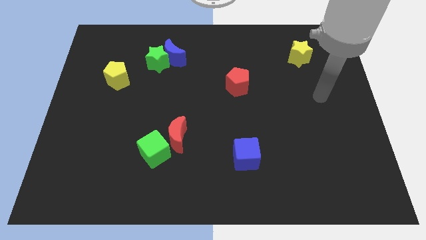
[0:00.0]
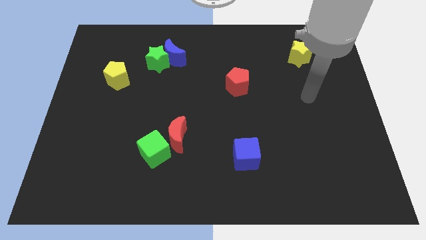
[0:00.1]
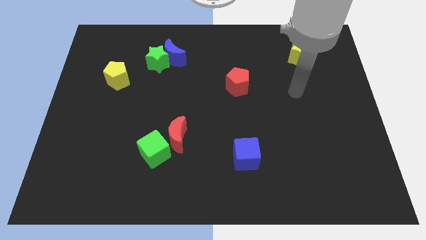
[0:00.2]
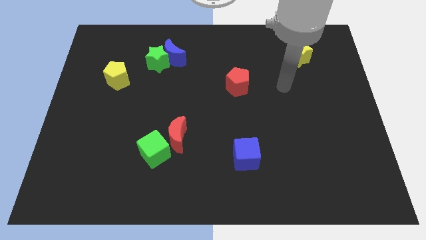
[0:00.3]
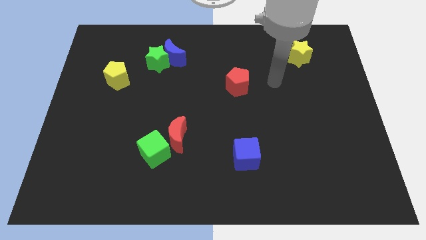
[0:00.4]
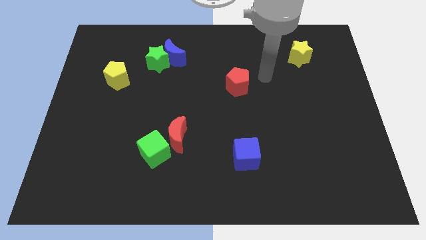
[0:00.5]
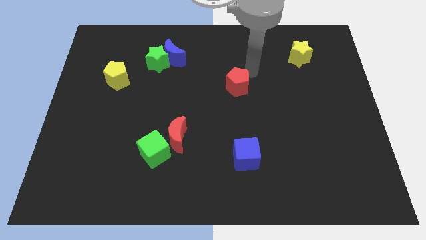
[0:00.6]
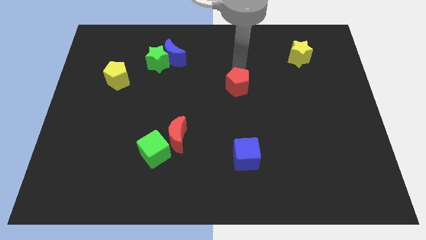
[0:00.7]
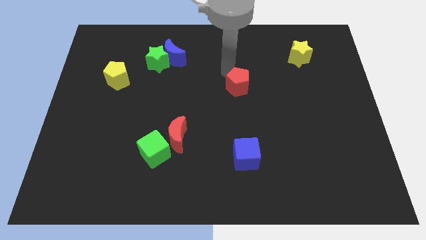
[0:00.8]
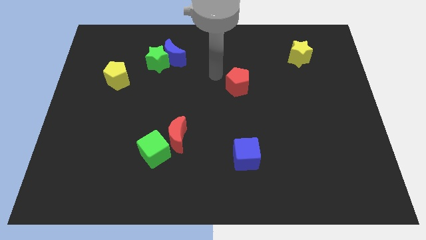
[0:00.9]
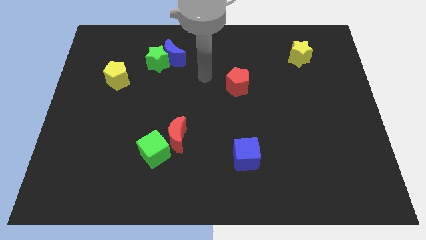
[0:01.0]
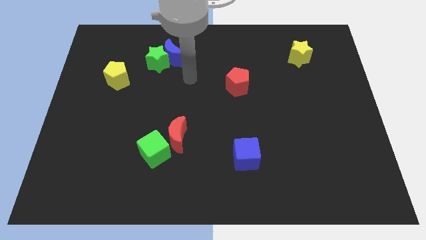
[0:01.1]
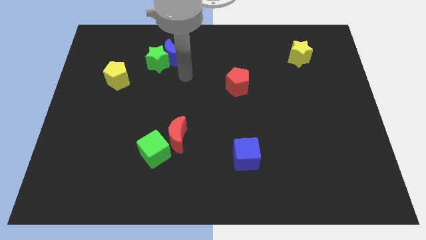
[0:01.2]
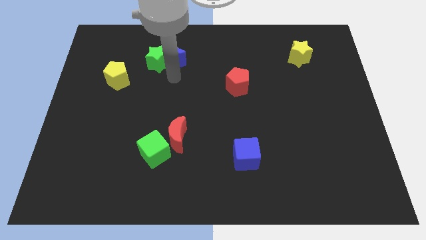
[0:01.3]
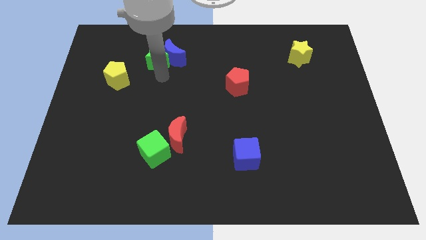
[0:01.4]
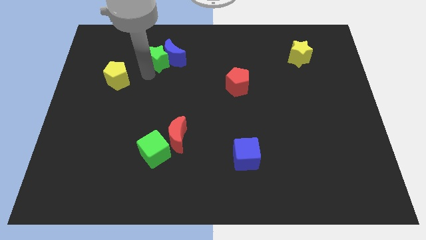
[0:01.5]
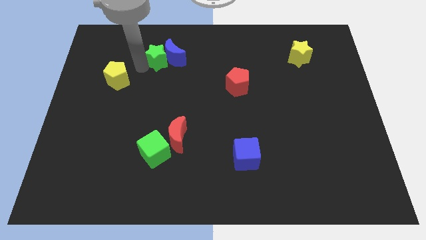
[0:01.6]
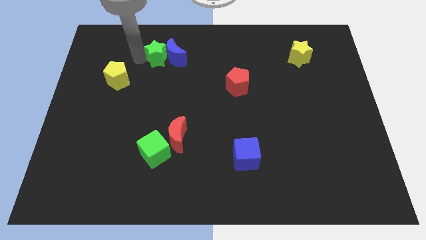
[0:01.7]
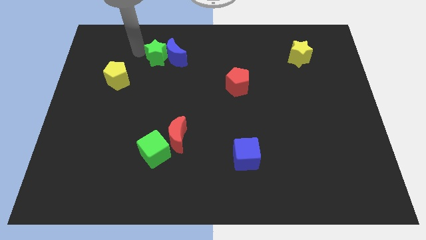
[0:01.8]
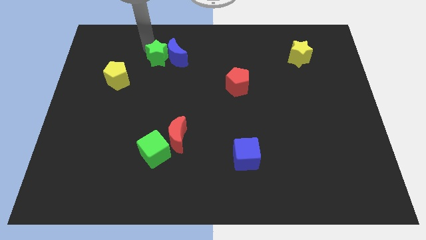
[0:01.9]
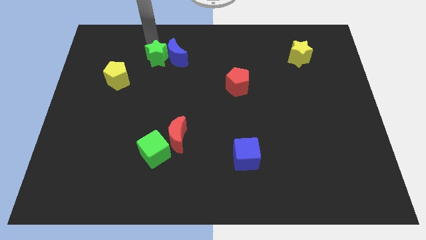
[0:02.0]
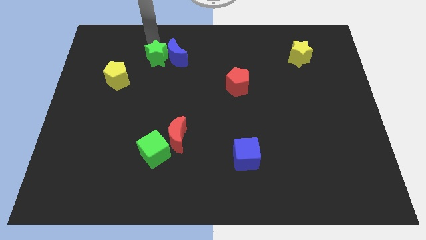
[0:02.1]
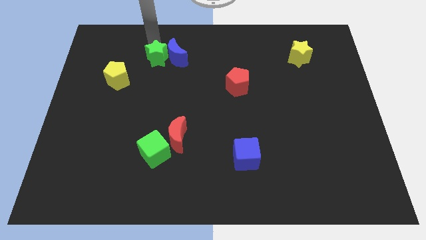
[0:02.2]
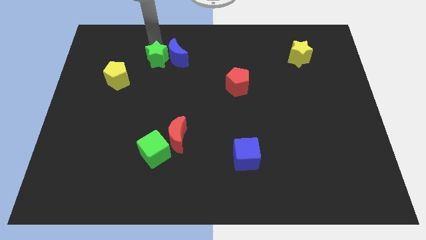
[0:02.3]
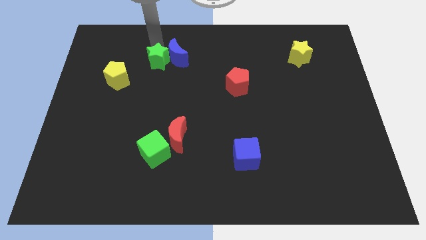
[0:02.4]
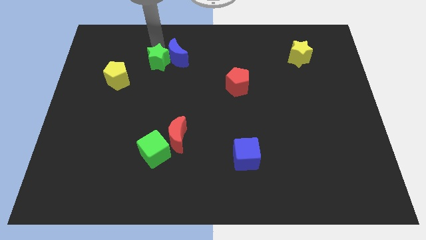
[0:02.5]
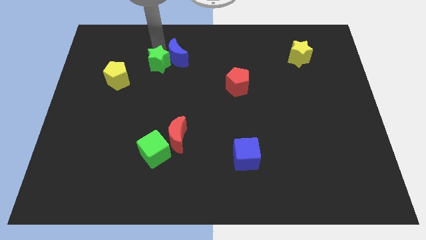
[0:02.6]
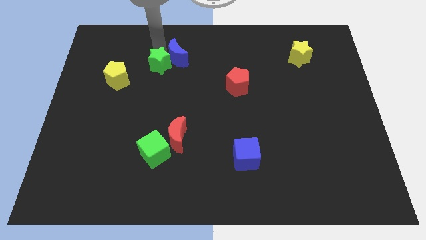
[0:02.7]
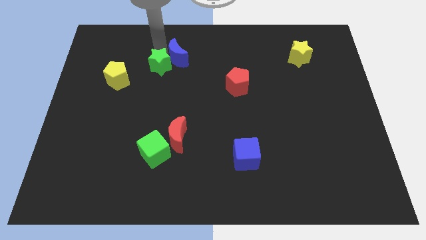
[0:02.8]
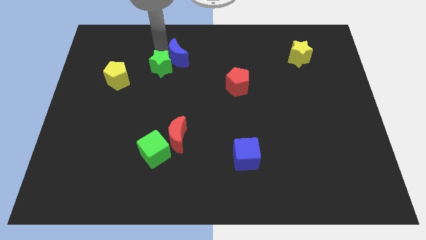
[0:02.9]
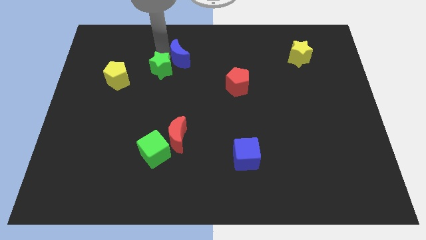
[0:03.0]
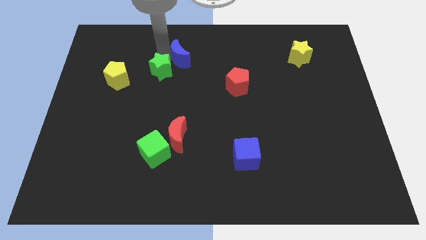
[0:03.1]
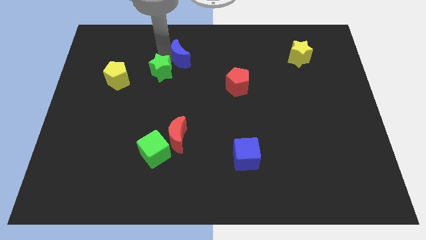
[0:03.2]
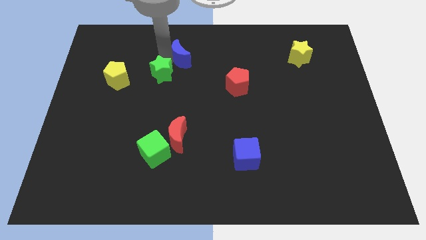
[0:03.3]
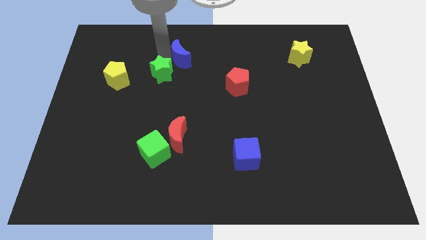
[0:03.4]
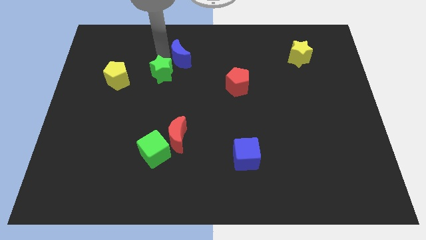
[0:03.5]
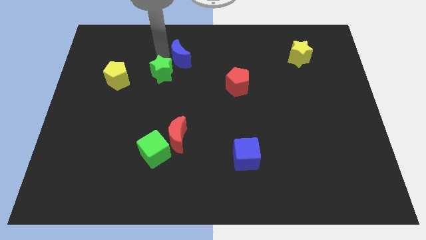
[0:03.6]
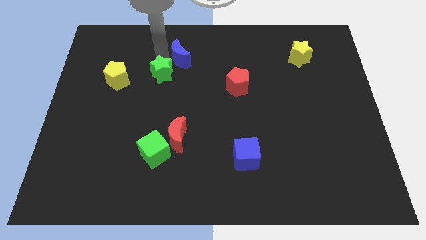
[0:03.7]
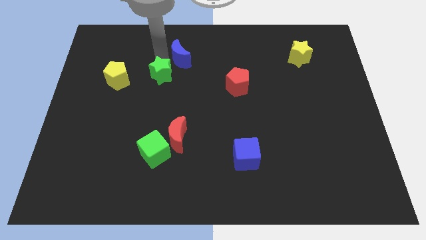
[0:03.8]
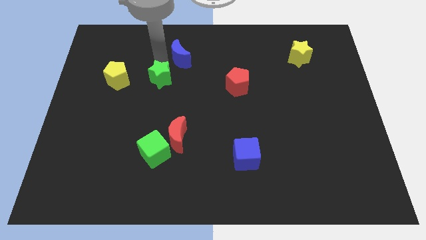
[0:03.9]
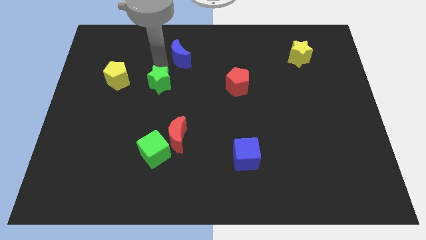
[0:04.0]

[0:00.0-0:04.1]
slightly move the green star down

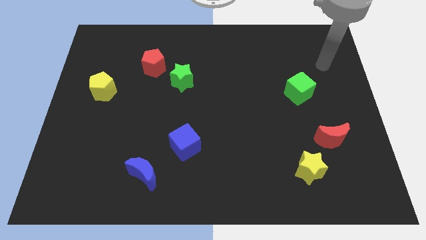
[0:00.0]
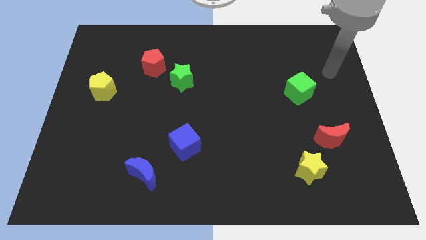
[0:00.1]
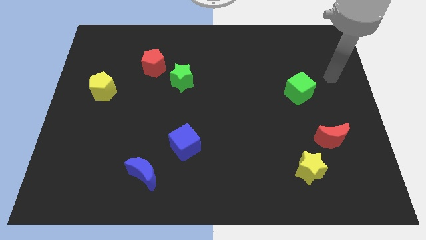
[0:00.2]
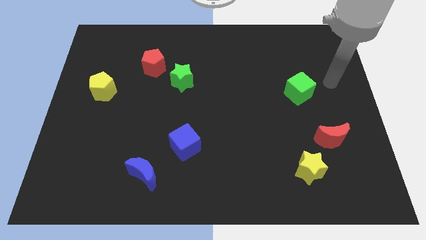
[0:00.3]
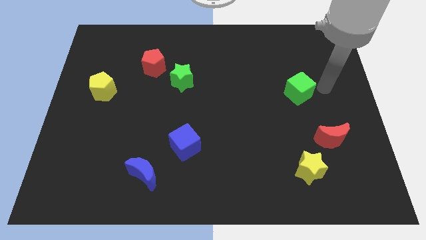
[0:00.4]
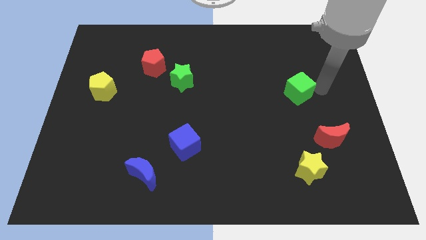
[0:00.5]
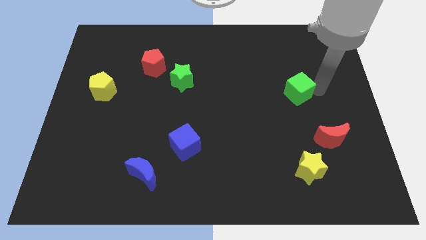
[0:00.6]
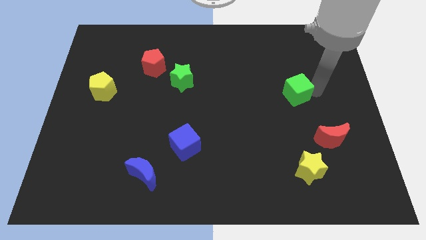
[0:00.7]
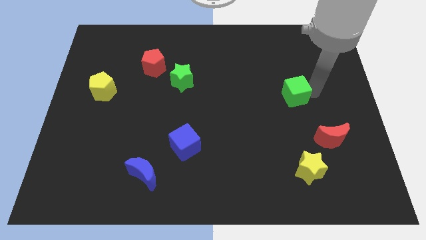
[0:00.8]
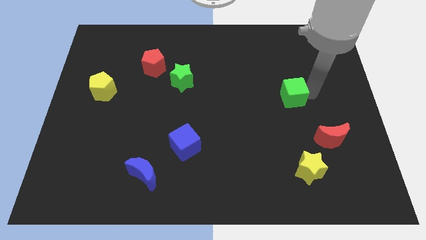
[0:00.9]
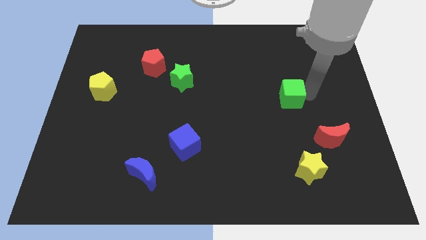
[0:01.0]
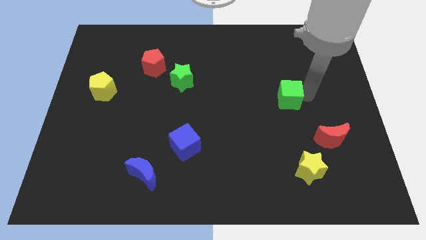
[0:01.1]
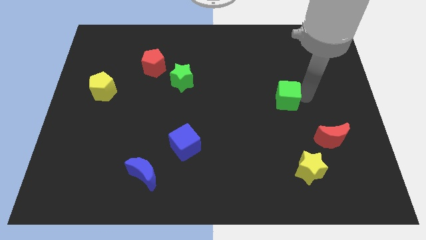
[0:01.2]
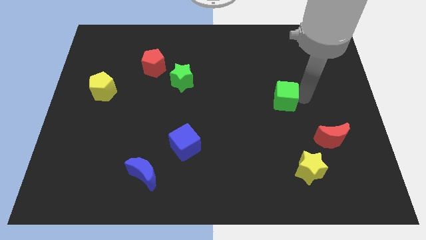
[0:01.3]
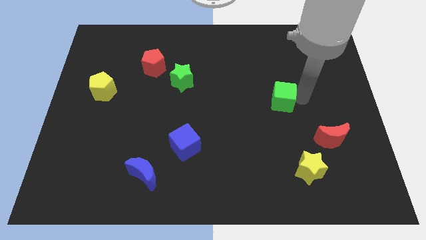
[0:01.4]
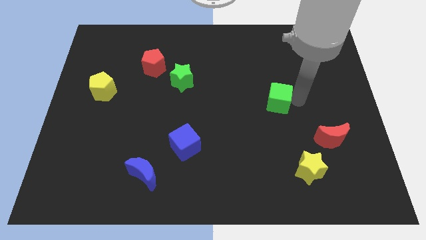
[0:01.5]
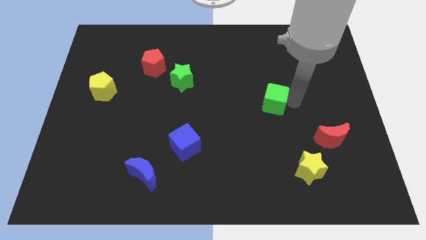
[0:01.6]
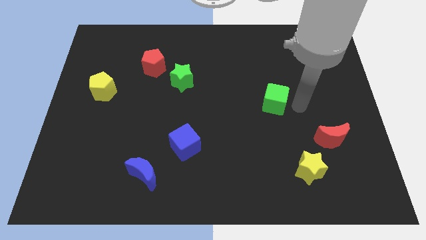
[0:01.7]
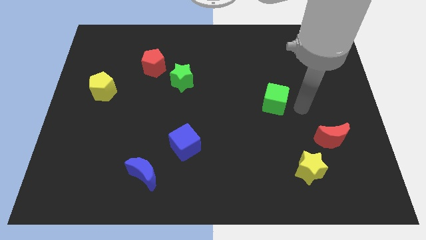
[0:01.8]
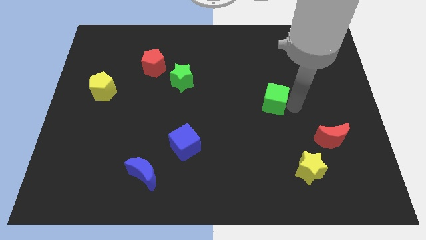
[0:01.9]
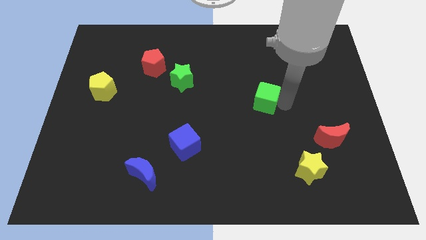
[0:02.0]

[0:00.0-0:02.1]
slightly slide the green cube left

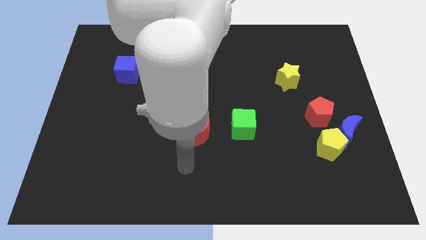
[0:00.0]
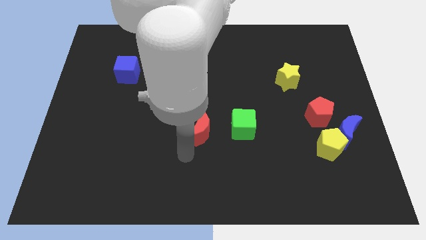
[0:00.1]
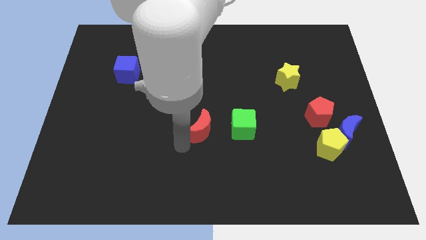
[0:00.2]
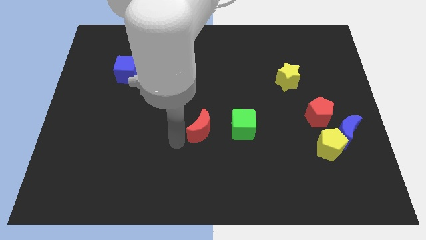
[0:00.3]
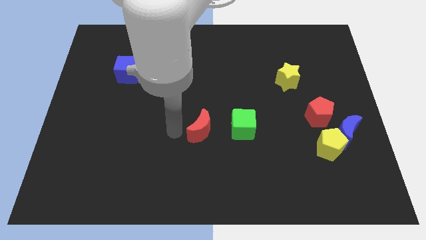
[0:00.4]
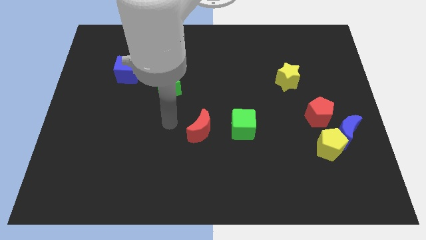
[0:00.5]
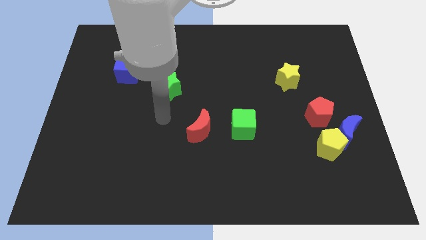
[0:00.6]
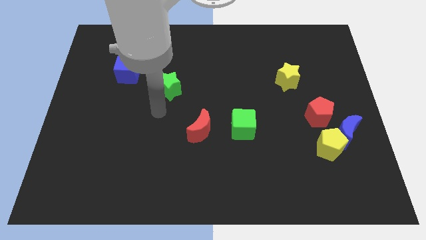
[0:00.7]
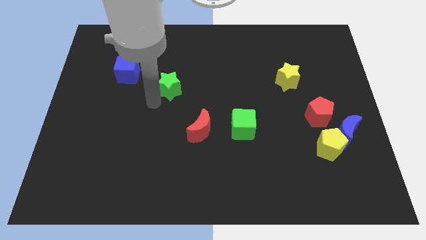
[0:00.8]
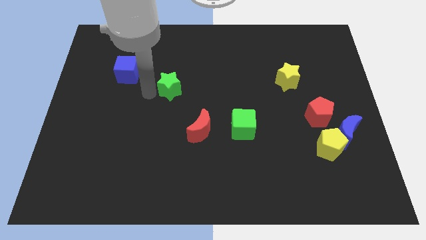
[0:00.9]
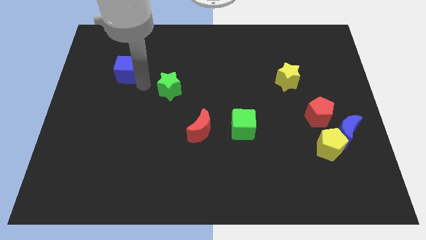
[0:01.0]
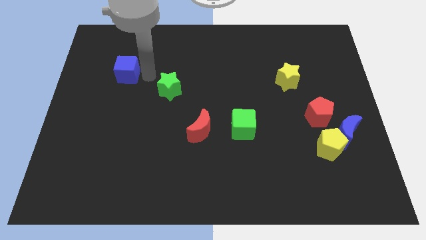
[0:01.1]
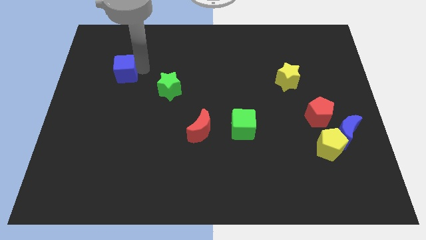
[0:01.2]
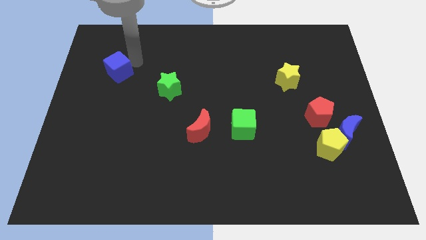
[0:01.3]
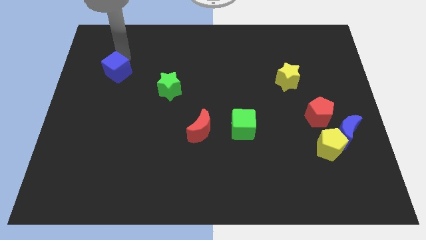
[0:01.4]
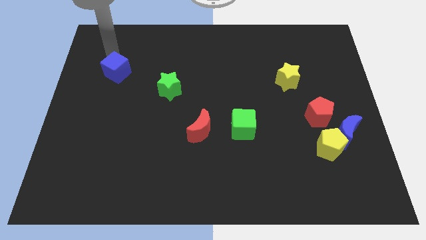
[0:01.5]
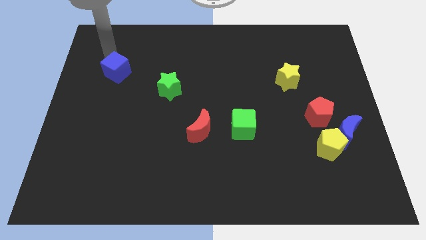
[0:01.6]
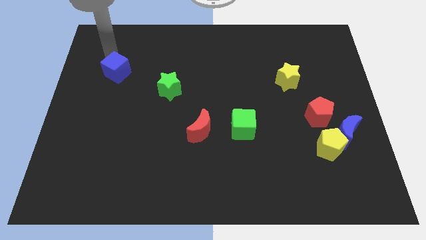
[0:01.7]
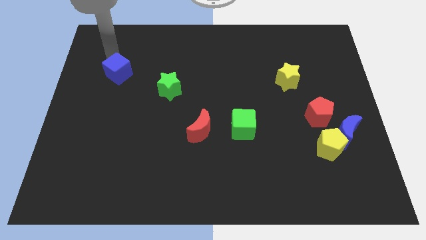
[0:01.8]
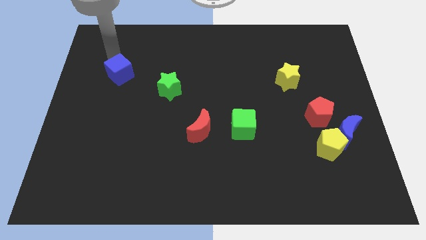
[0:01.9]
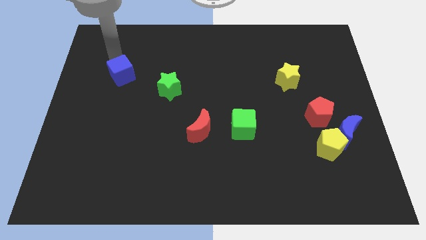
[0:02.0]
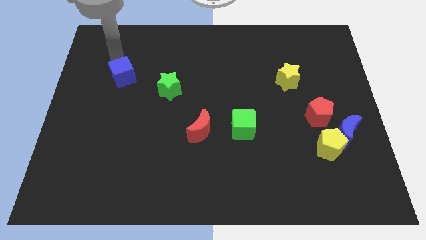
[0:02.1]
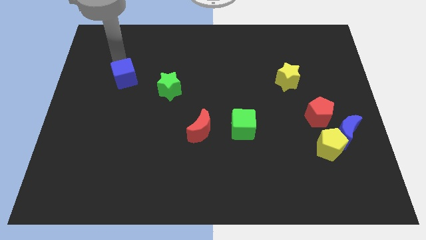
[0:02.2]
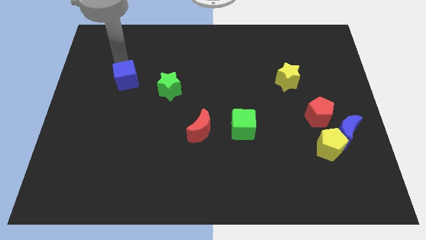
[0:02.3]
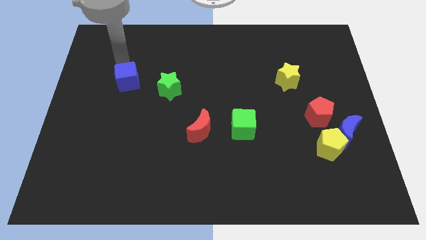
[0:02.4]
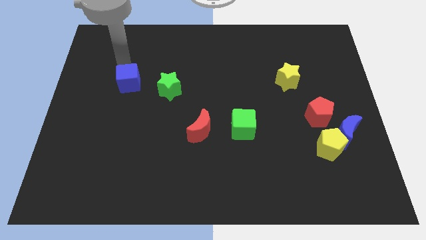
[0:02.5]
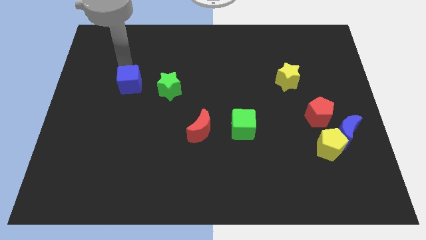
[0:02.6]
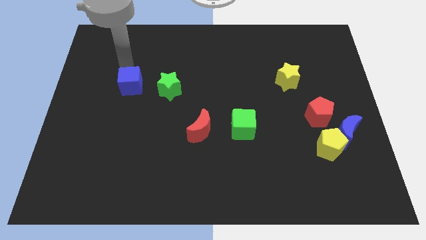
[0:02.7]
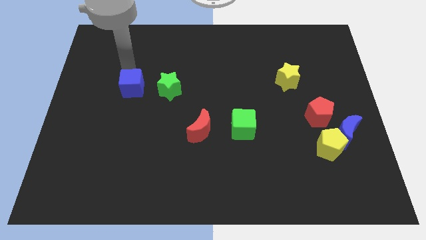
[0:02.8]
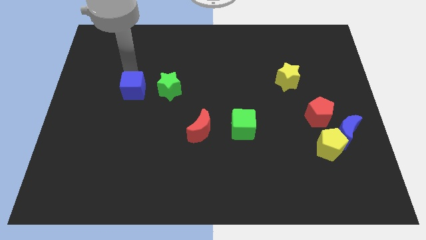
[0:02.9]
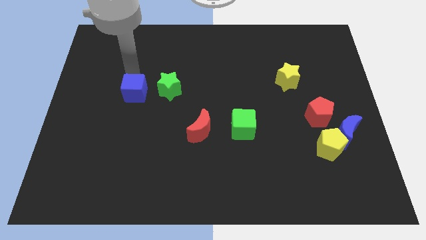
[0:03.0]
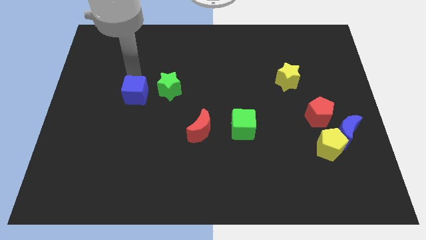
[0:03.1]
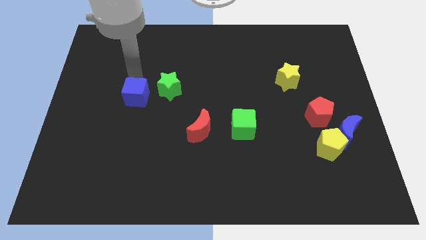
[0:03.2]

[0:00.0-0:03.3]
slightly slide the blue cube downwards
